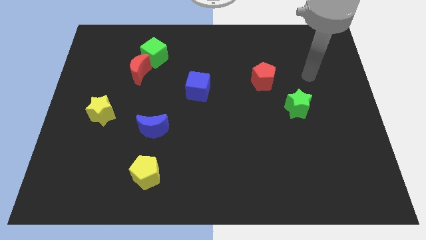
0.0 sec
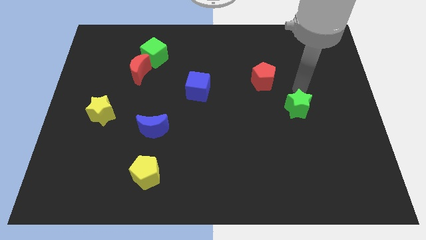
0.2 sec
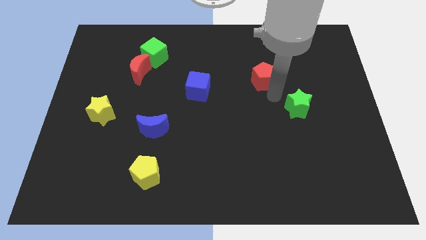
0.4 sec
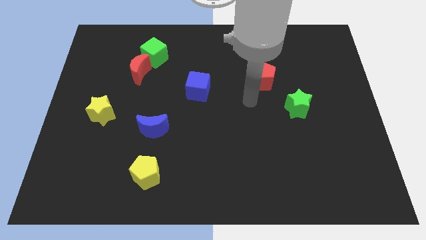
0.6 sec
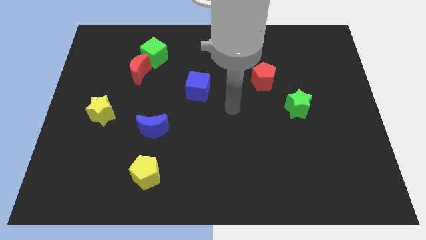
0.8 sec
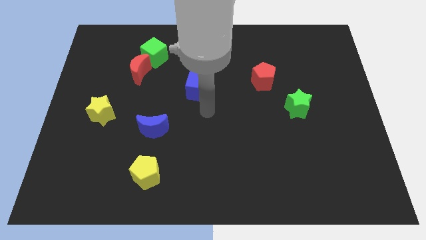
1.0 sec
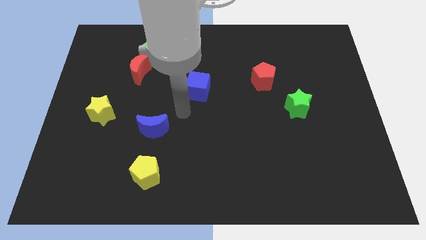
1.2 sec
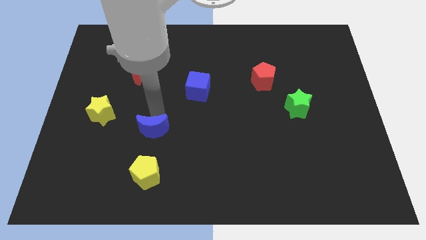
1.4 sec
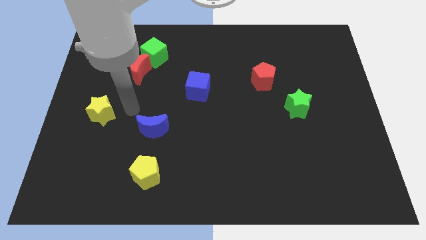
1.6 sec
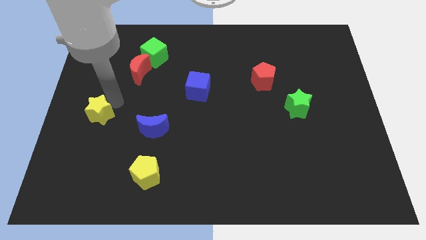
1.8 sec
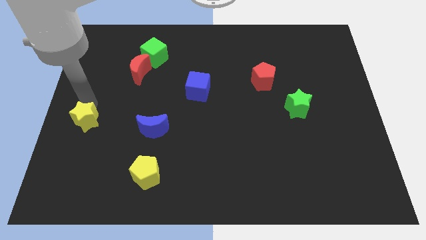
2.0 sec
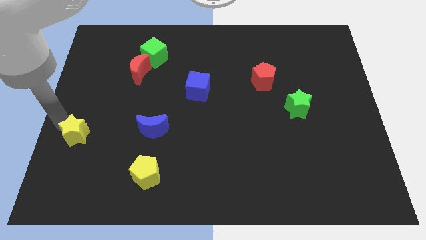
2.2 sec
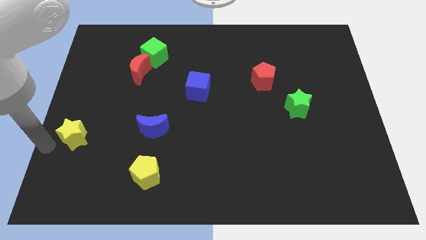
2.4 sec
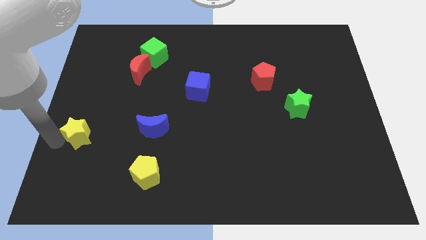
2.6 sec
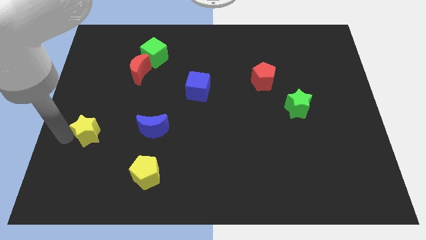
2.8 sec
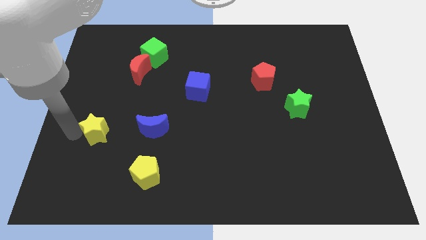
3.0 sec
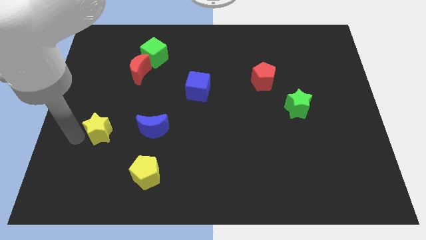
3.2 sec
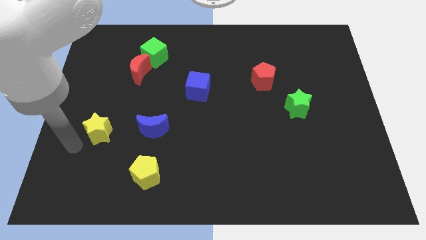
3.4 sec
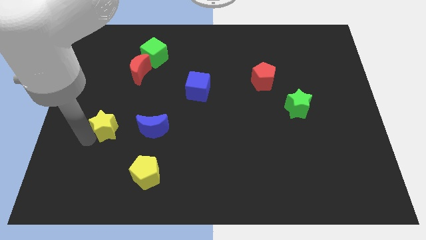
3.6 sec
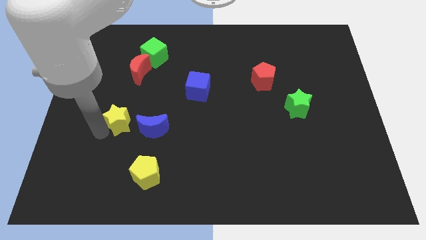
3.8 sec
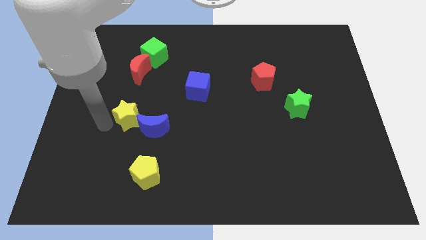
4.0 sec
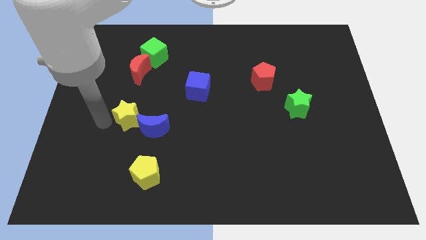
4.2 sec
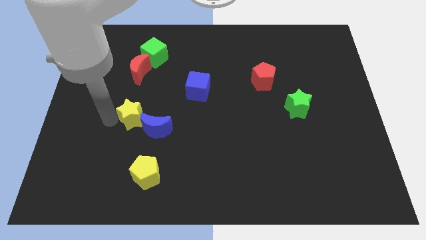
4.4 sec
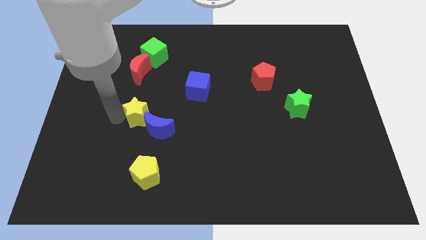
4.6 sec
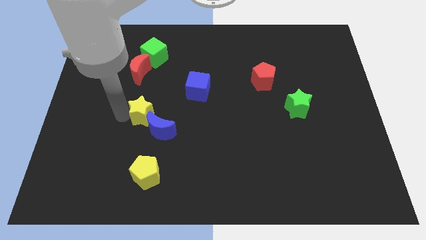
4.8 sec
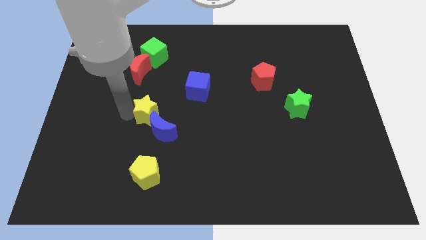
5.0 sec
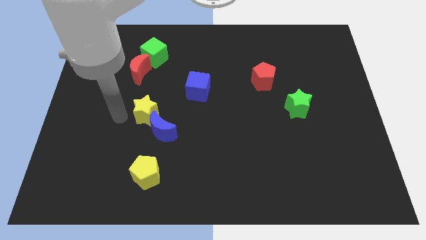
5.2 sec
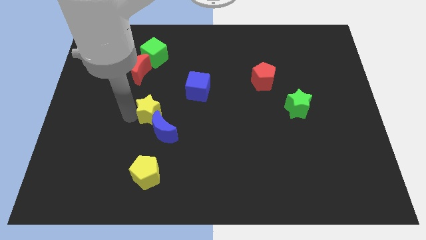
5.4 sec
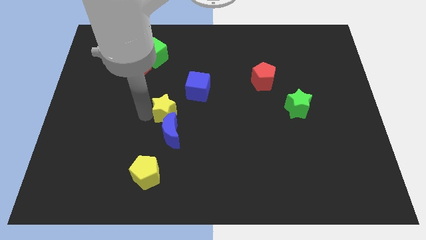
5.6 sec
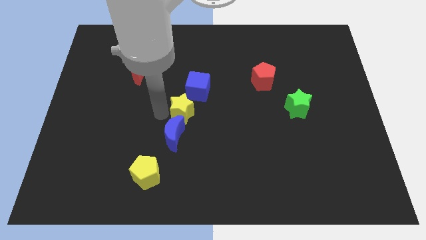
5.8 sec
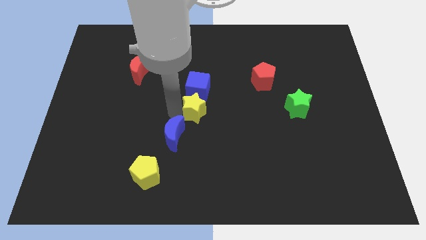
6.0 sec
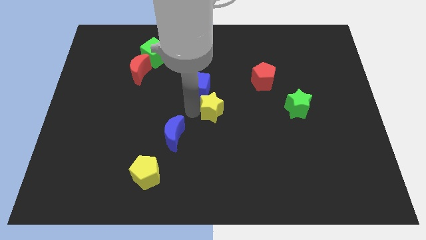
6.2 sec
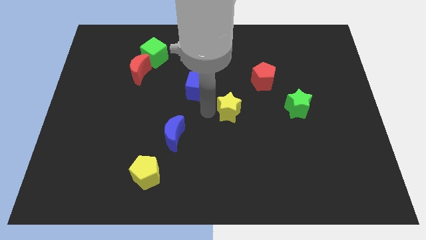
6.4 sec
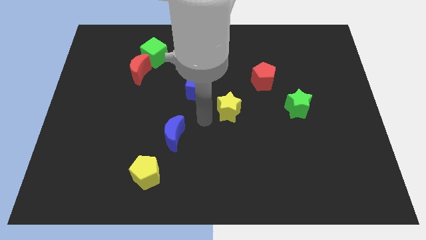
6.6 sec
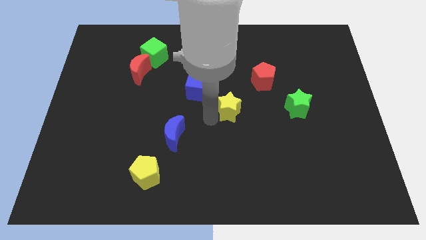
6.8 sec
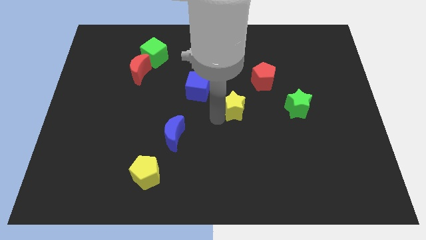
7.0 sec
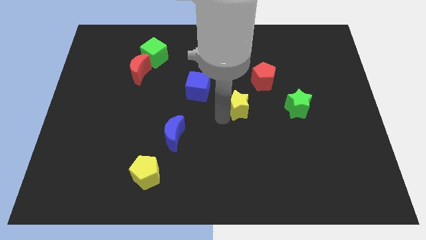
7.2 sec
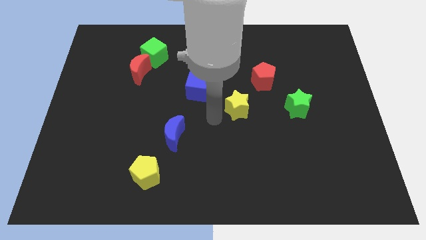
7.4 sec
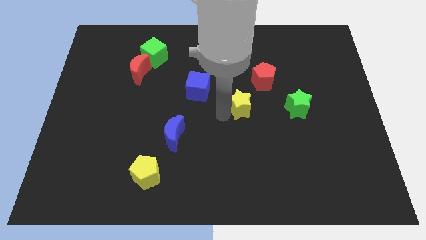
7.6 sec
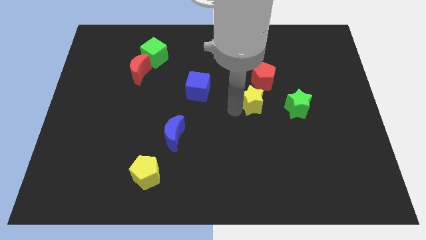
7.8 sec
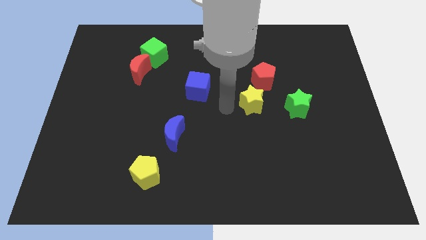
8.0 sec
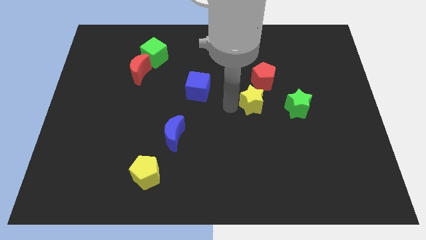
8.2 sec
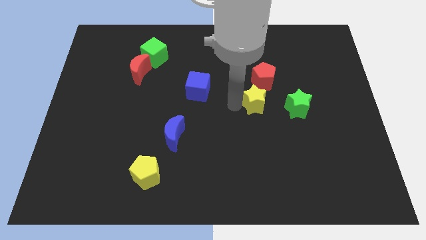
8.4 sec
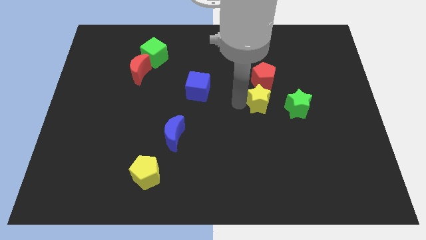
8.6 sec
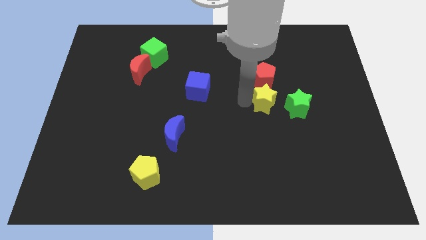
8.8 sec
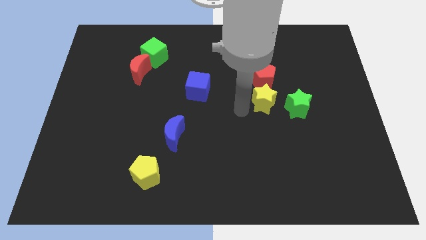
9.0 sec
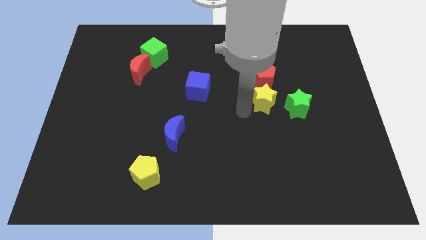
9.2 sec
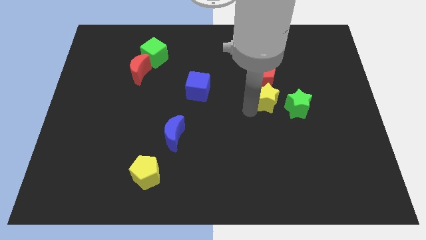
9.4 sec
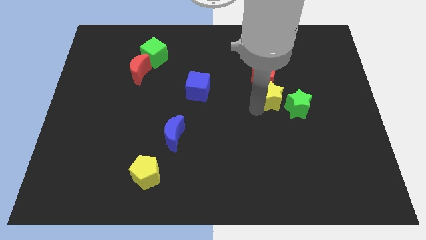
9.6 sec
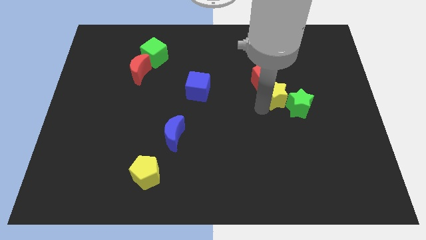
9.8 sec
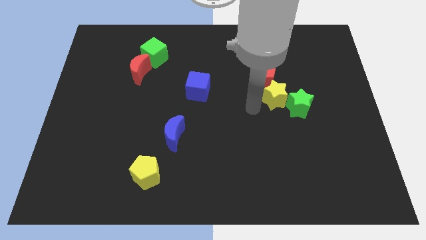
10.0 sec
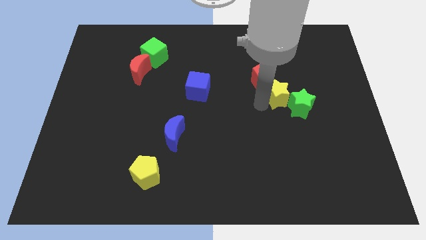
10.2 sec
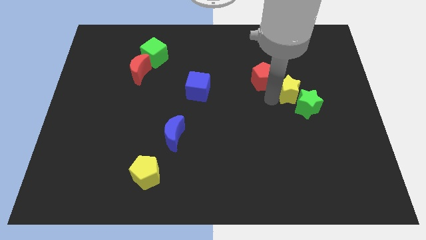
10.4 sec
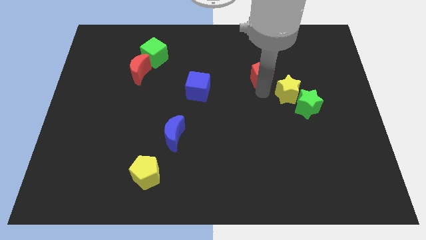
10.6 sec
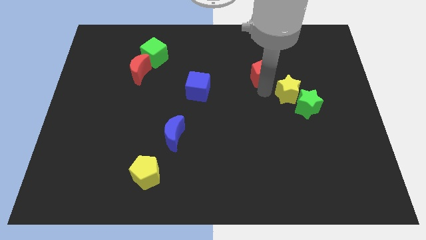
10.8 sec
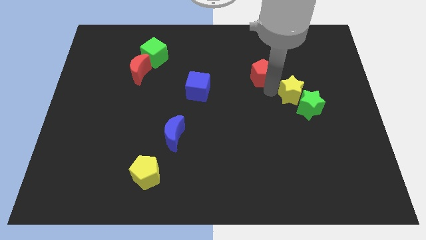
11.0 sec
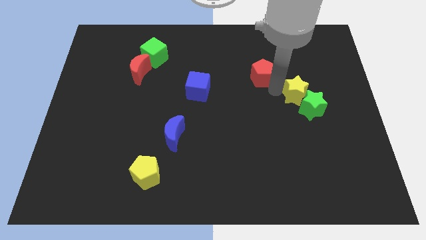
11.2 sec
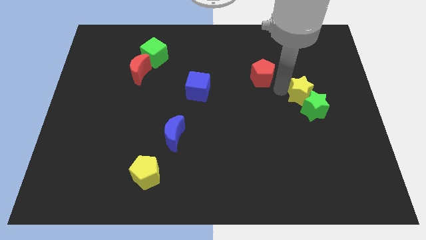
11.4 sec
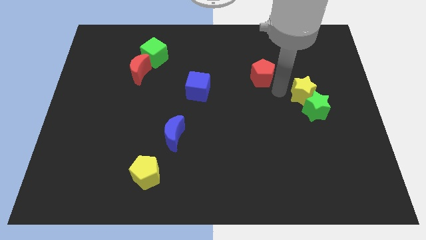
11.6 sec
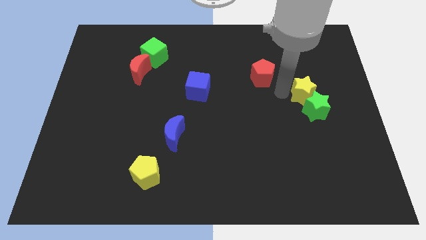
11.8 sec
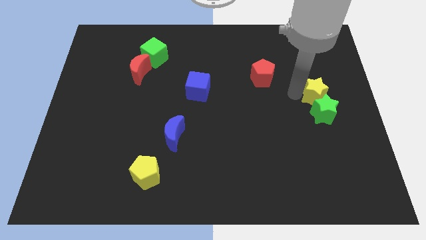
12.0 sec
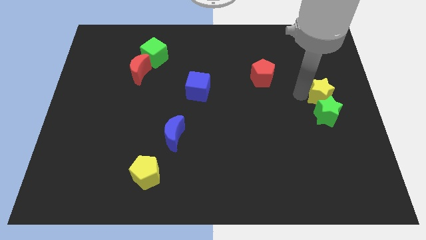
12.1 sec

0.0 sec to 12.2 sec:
put the yellow star to the right side

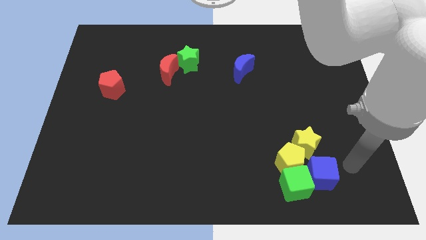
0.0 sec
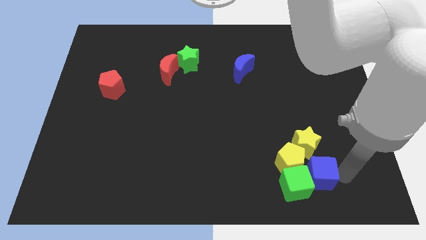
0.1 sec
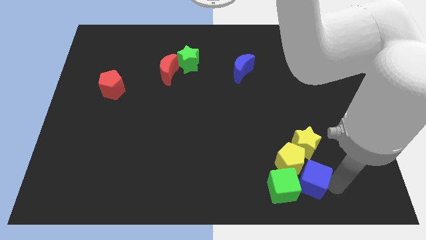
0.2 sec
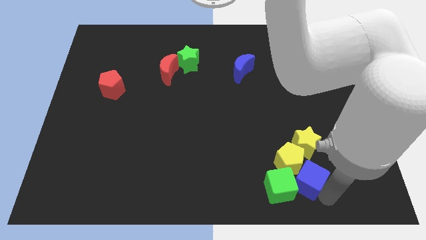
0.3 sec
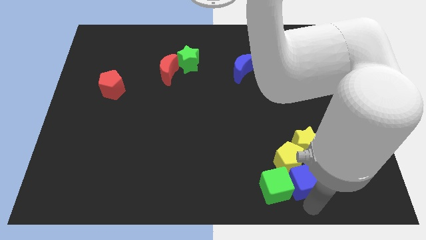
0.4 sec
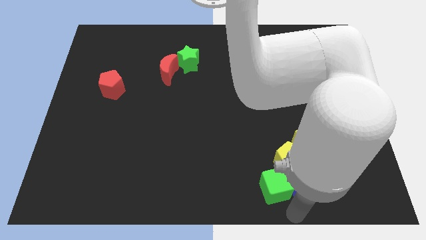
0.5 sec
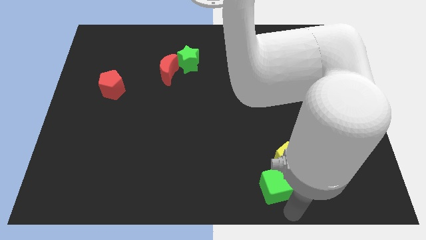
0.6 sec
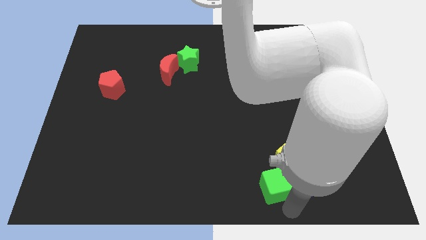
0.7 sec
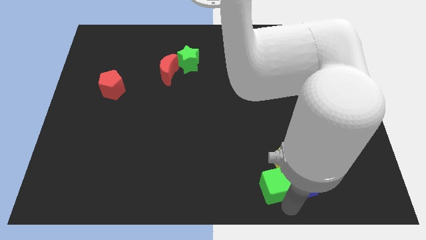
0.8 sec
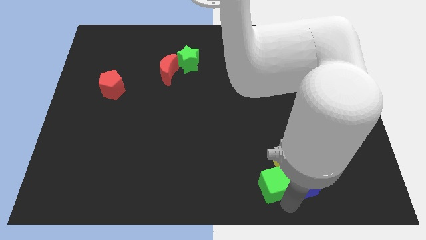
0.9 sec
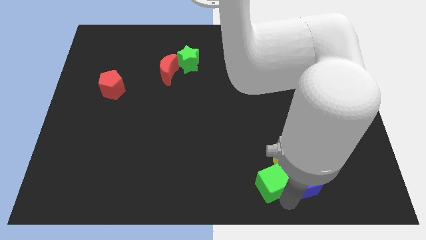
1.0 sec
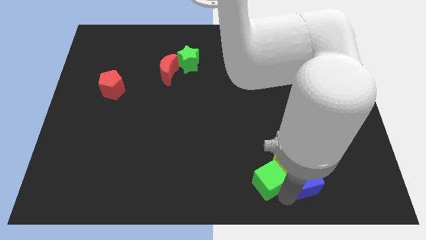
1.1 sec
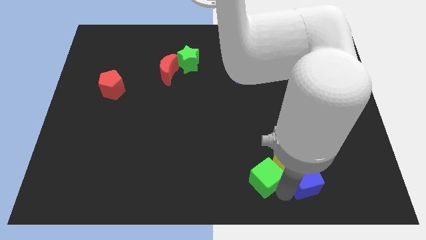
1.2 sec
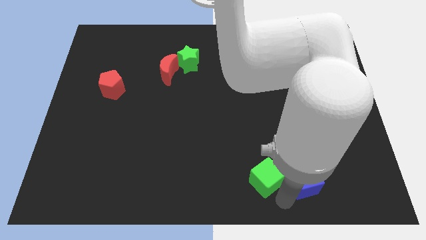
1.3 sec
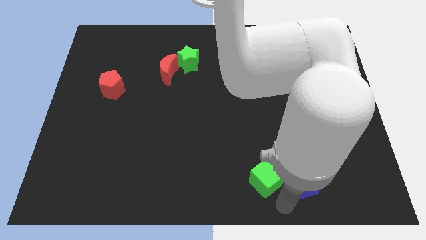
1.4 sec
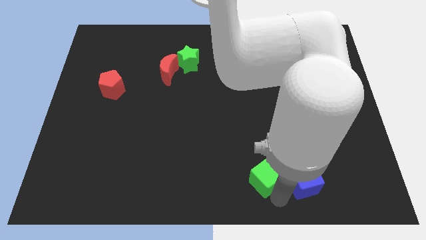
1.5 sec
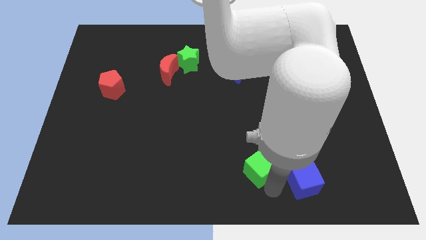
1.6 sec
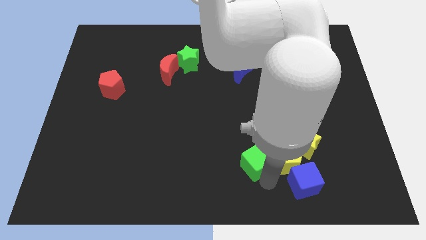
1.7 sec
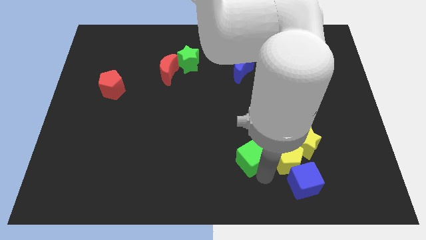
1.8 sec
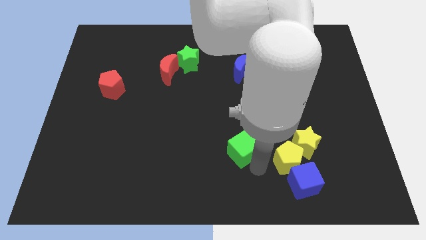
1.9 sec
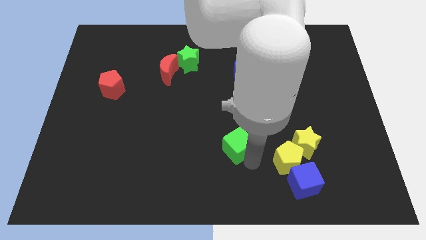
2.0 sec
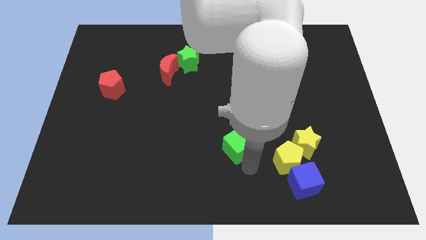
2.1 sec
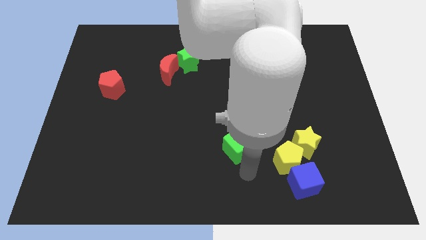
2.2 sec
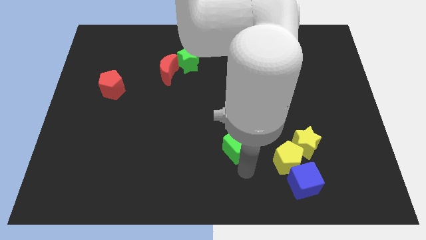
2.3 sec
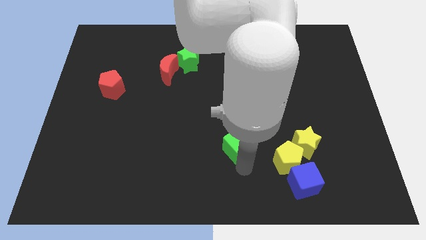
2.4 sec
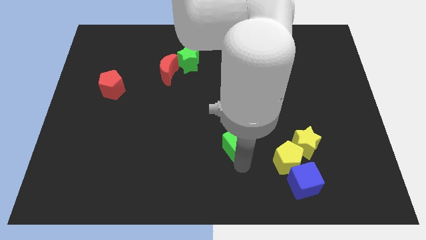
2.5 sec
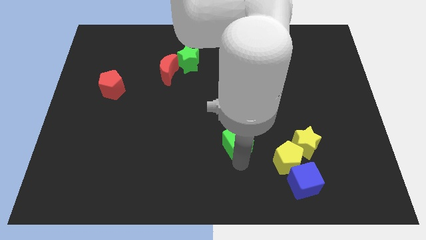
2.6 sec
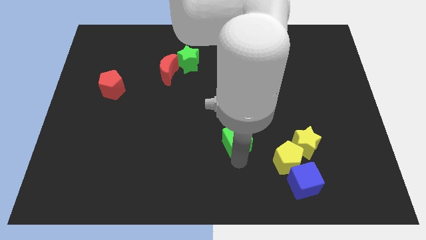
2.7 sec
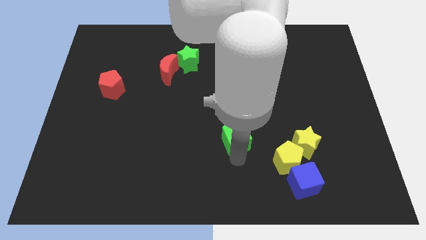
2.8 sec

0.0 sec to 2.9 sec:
move the green cube to the center of the board
